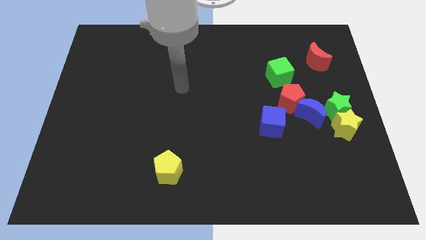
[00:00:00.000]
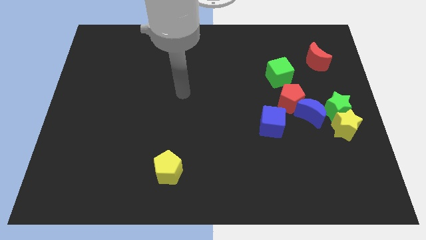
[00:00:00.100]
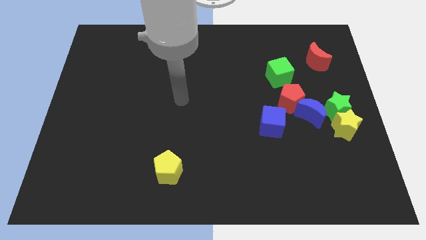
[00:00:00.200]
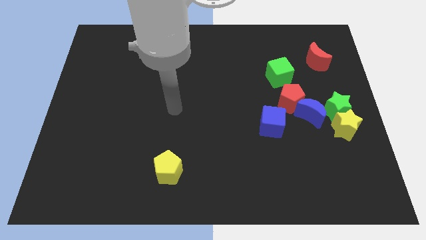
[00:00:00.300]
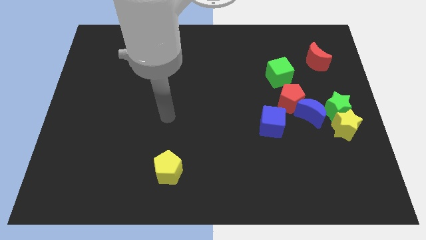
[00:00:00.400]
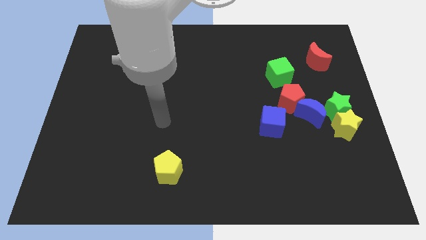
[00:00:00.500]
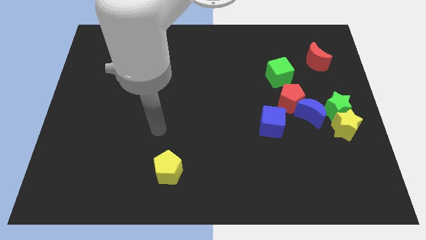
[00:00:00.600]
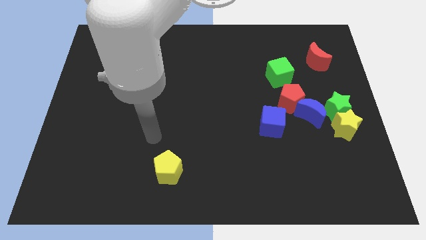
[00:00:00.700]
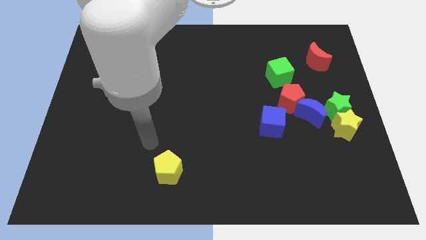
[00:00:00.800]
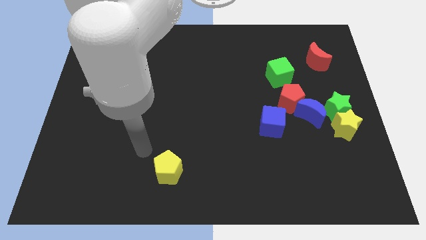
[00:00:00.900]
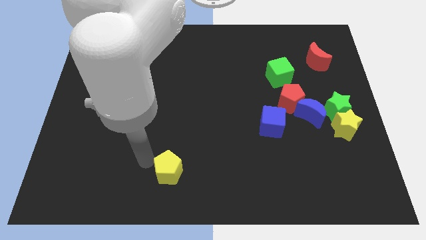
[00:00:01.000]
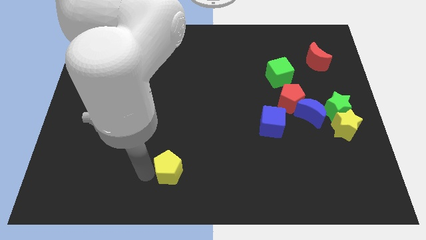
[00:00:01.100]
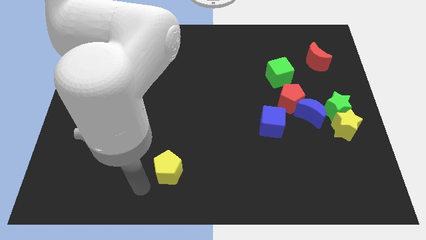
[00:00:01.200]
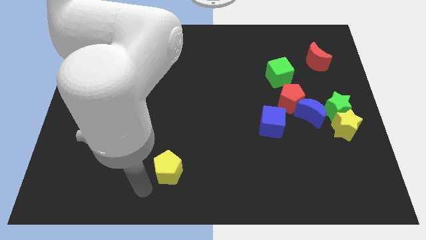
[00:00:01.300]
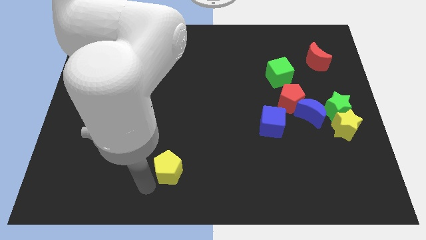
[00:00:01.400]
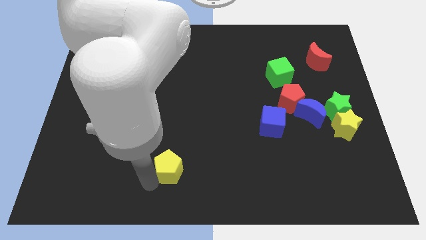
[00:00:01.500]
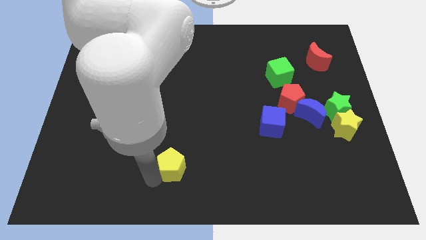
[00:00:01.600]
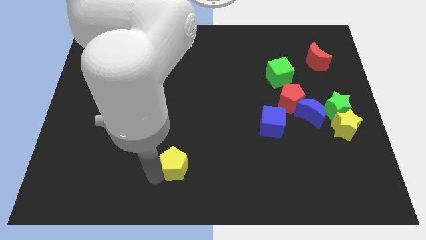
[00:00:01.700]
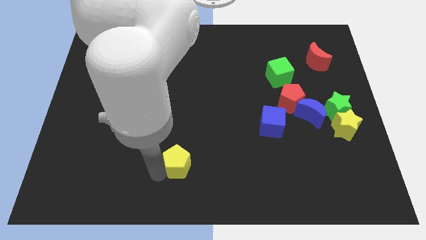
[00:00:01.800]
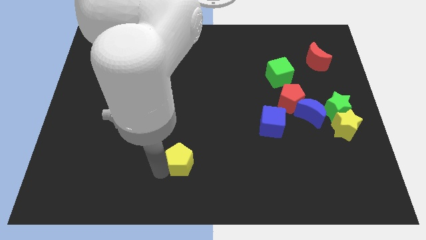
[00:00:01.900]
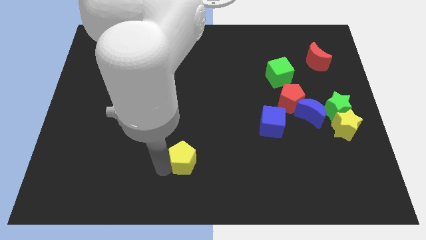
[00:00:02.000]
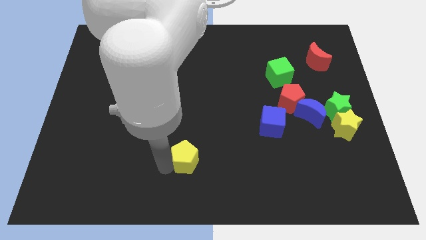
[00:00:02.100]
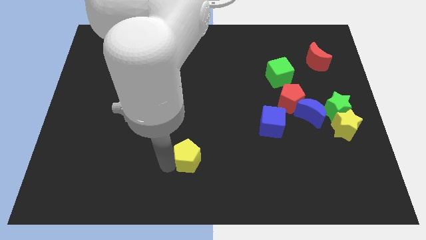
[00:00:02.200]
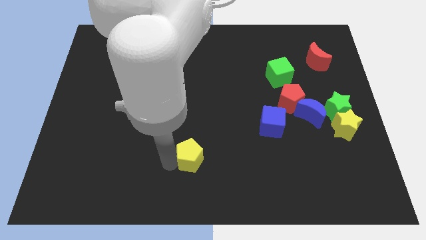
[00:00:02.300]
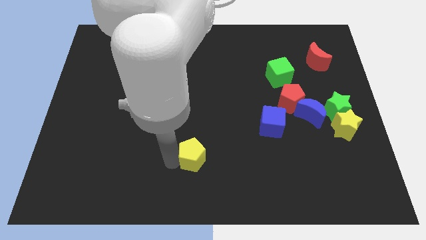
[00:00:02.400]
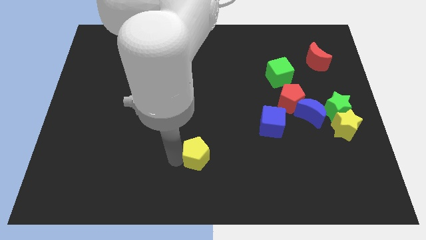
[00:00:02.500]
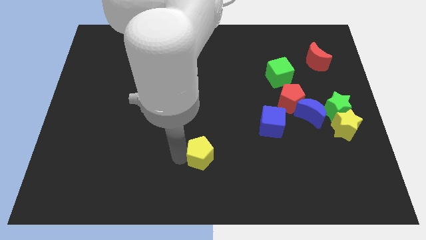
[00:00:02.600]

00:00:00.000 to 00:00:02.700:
slide the yellow pentagon a little bit upwards and then right

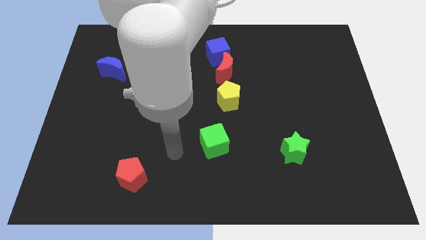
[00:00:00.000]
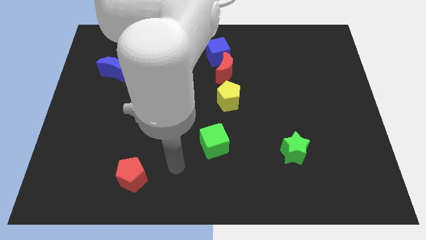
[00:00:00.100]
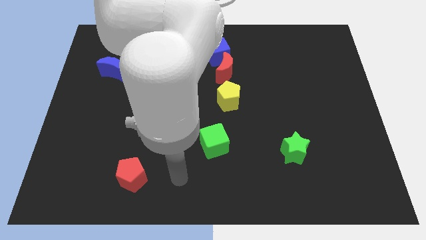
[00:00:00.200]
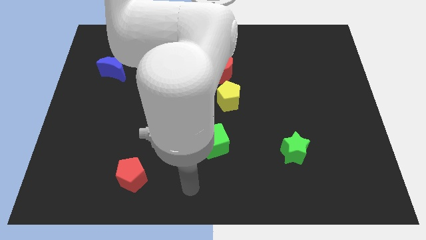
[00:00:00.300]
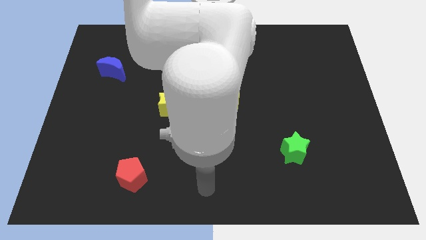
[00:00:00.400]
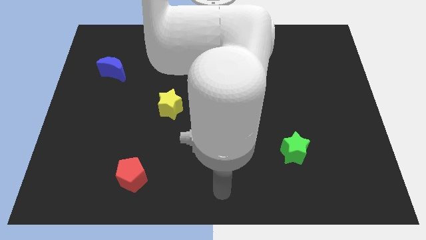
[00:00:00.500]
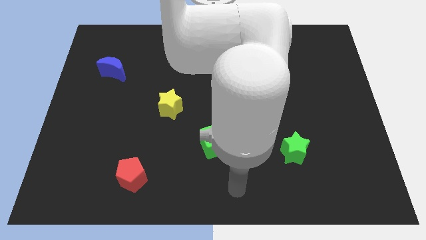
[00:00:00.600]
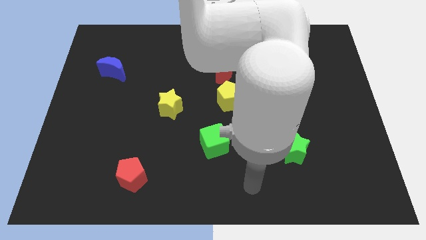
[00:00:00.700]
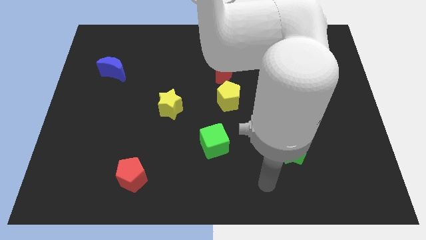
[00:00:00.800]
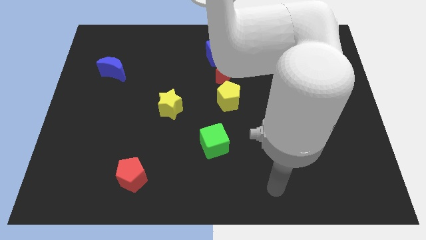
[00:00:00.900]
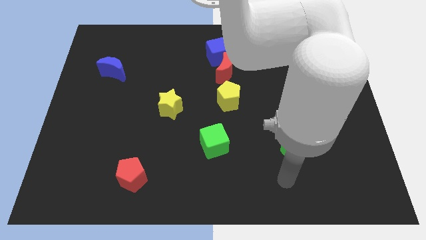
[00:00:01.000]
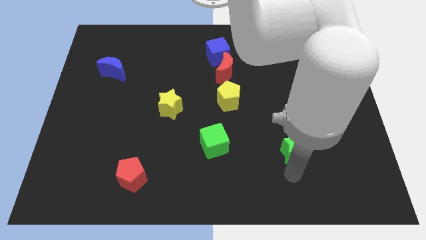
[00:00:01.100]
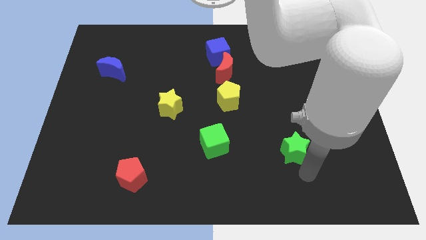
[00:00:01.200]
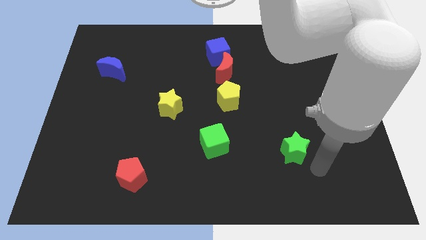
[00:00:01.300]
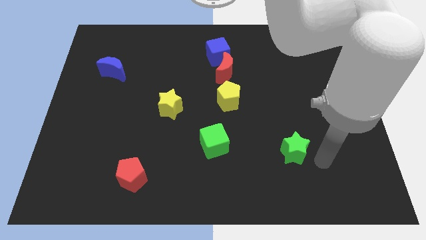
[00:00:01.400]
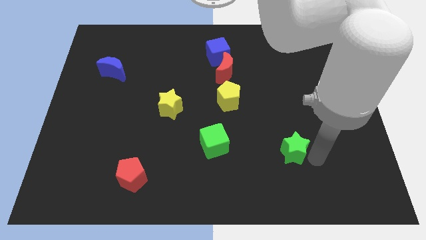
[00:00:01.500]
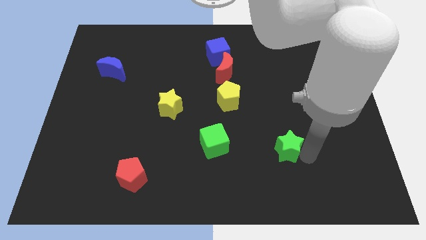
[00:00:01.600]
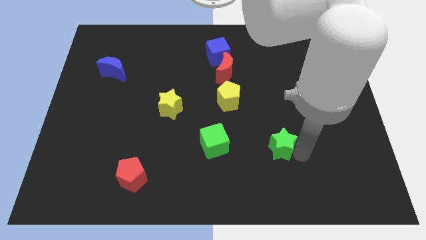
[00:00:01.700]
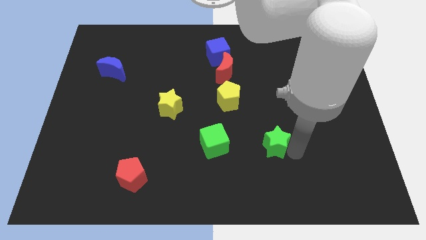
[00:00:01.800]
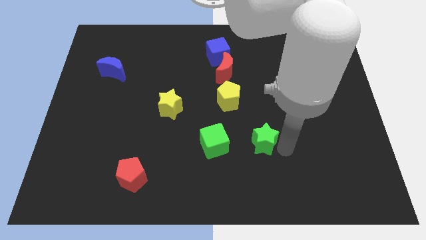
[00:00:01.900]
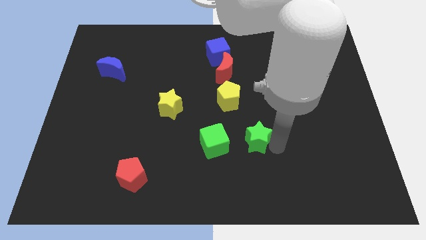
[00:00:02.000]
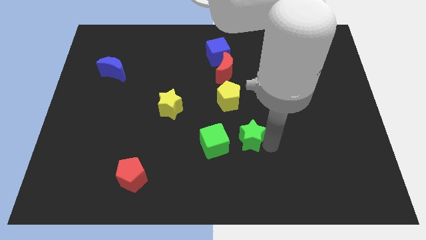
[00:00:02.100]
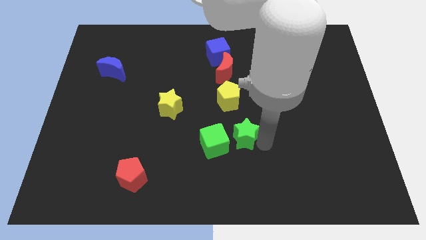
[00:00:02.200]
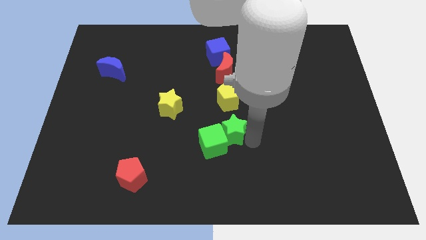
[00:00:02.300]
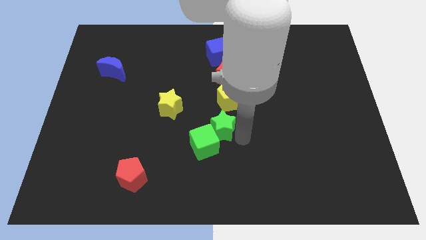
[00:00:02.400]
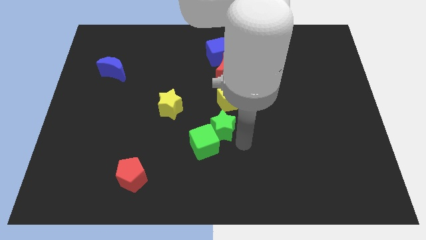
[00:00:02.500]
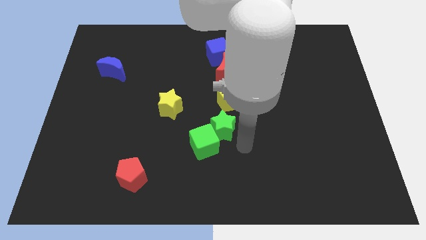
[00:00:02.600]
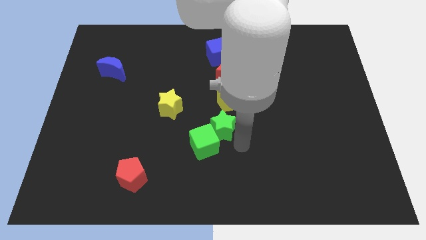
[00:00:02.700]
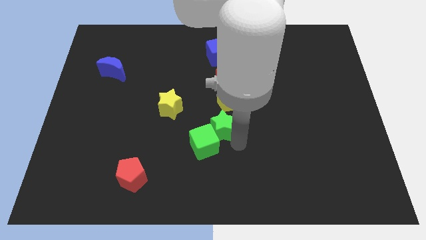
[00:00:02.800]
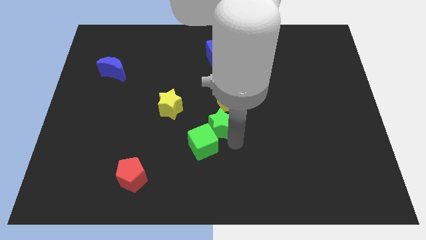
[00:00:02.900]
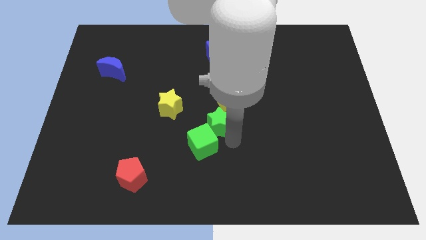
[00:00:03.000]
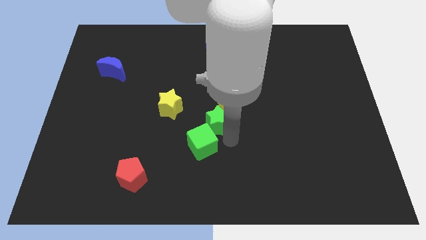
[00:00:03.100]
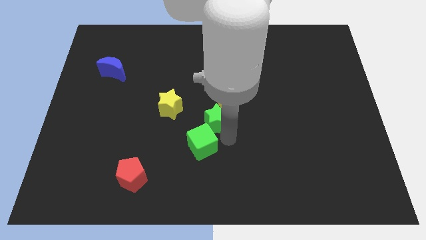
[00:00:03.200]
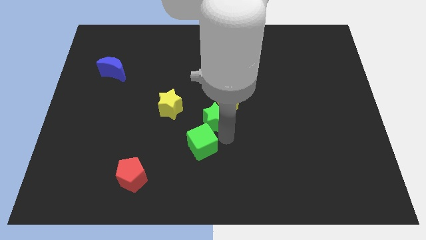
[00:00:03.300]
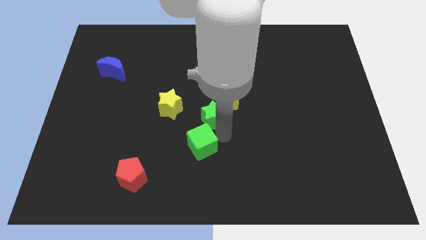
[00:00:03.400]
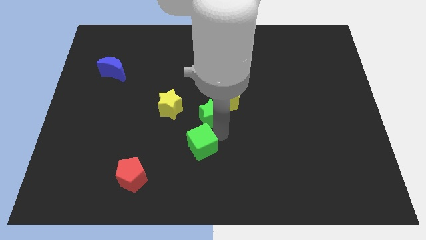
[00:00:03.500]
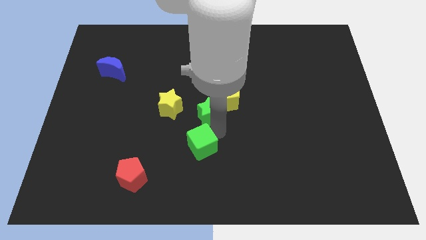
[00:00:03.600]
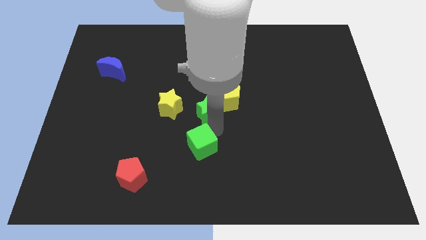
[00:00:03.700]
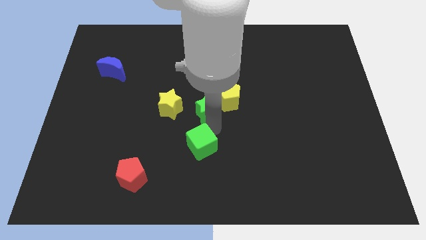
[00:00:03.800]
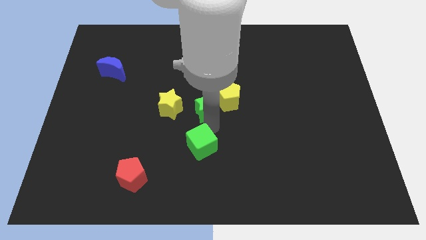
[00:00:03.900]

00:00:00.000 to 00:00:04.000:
push the green star diagonally upwards and to the left

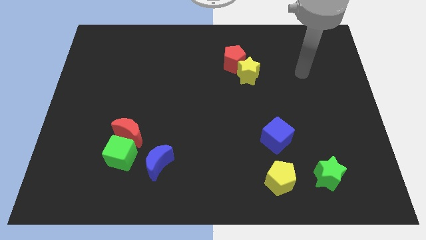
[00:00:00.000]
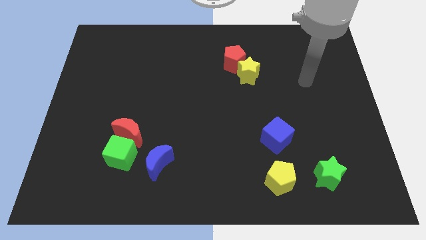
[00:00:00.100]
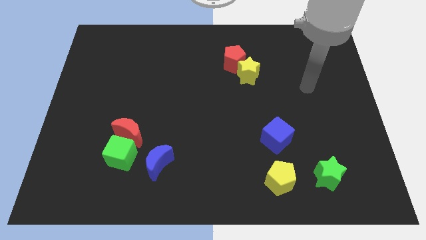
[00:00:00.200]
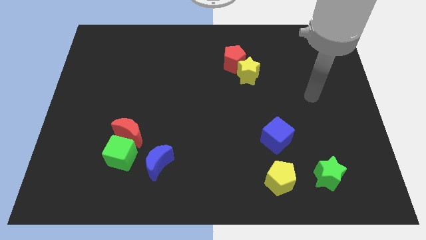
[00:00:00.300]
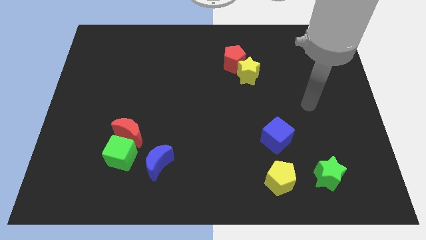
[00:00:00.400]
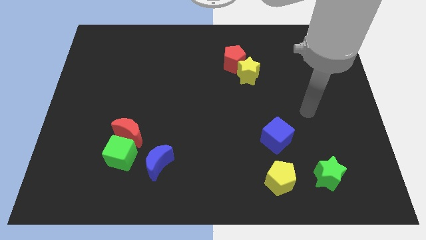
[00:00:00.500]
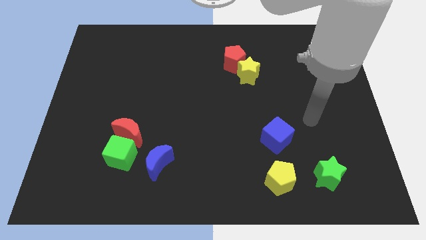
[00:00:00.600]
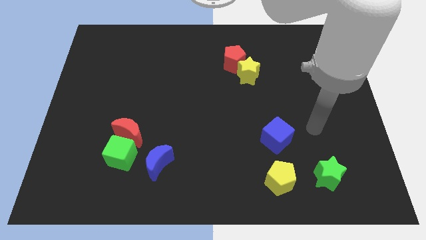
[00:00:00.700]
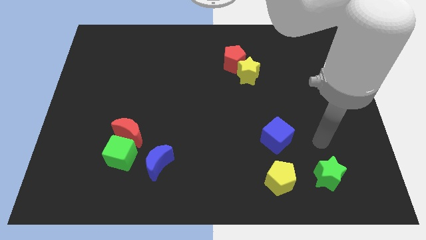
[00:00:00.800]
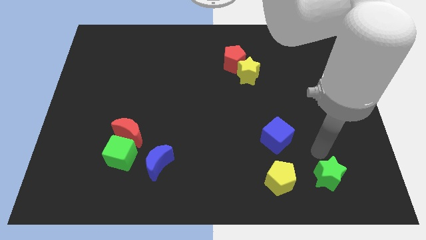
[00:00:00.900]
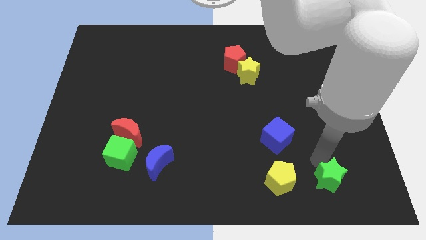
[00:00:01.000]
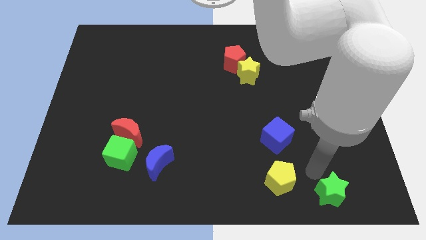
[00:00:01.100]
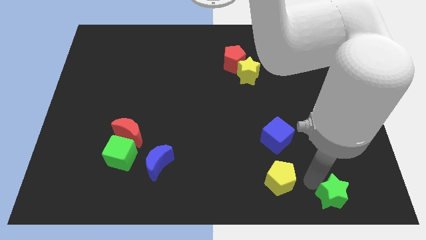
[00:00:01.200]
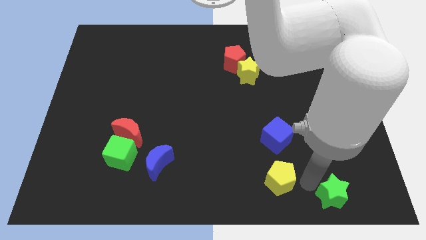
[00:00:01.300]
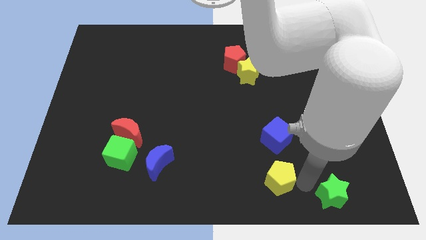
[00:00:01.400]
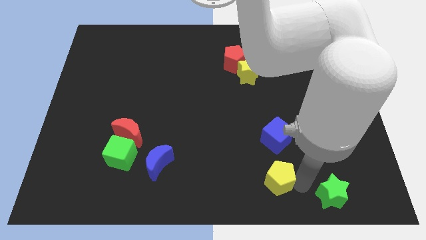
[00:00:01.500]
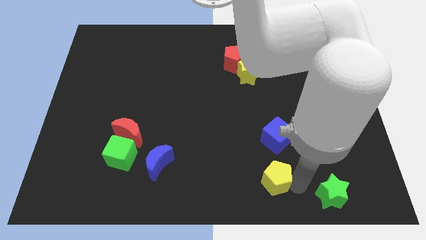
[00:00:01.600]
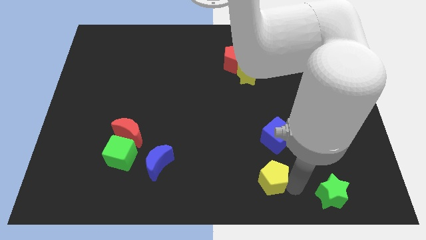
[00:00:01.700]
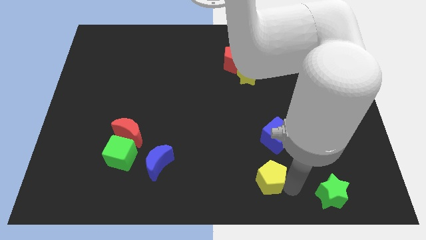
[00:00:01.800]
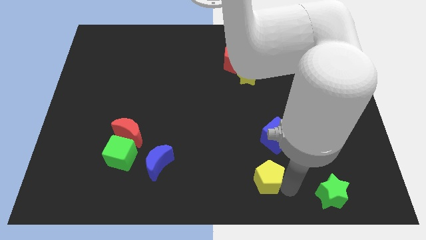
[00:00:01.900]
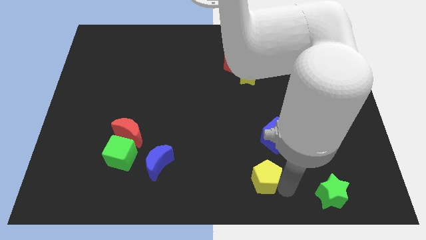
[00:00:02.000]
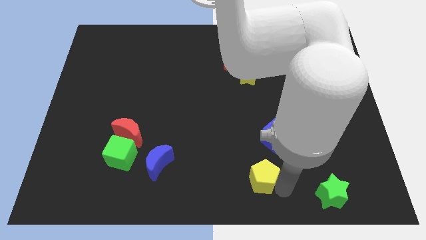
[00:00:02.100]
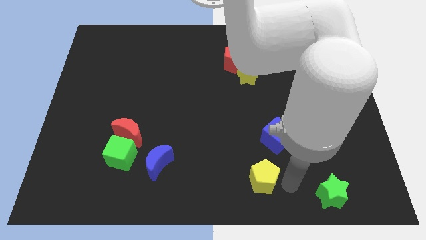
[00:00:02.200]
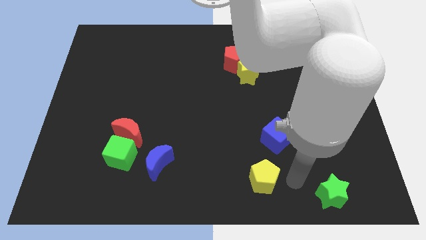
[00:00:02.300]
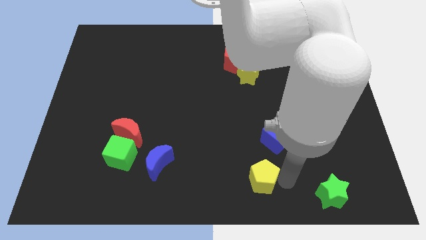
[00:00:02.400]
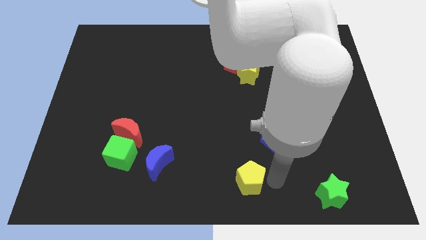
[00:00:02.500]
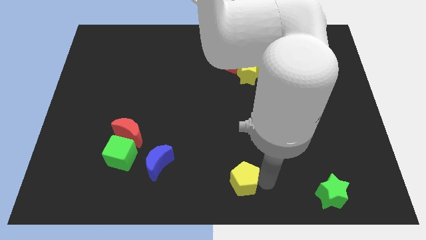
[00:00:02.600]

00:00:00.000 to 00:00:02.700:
move the yellow pentagon left slightly
